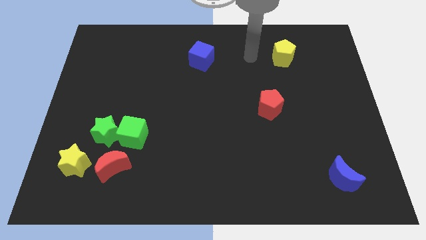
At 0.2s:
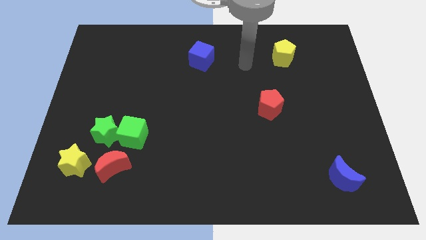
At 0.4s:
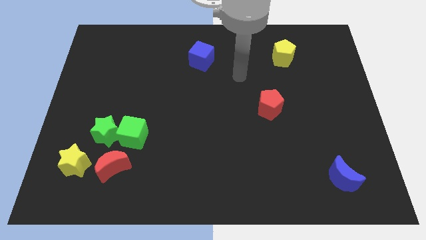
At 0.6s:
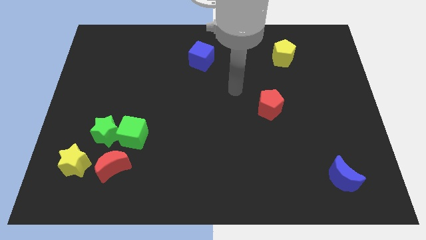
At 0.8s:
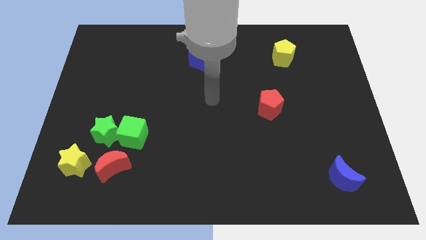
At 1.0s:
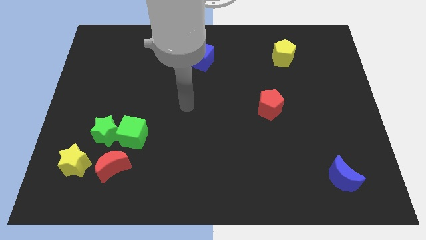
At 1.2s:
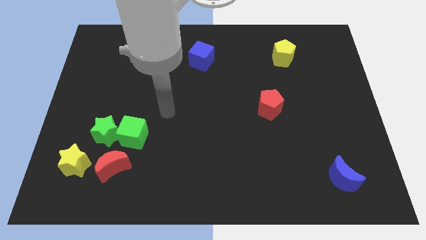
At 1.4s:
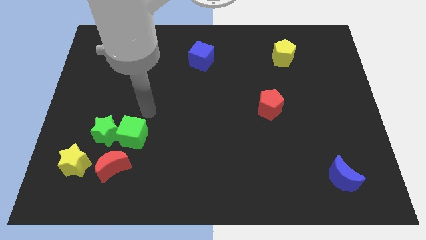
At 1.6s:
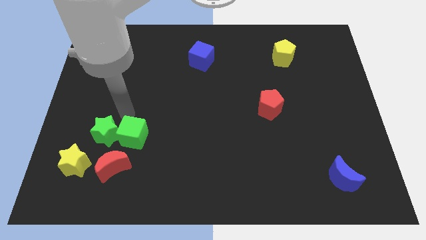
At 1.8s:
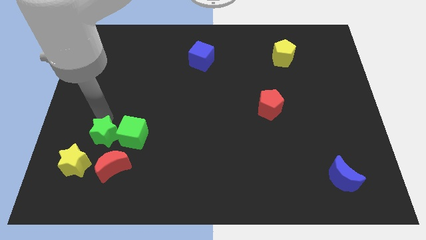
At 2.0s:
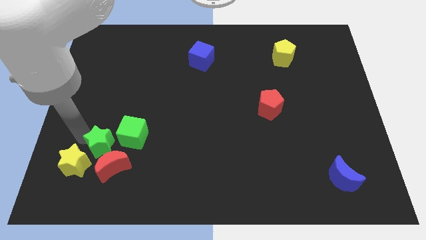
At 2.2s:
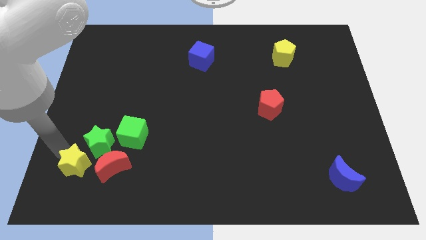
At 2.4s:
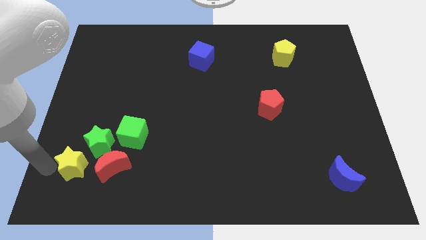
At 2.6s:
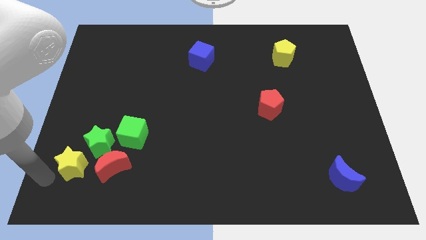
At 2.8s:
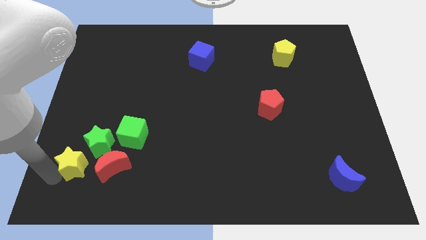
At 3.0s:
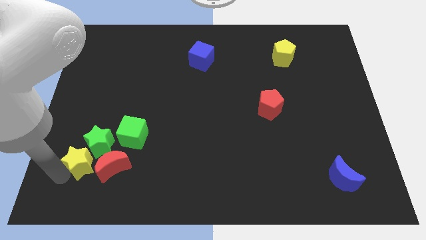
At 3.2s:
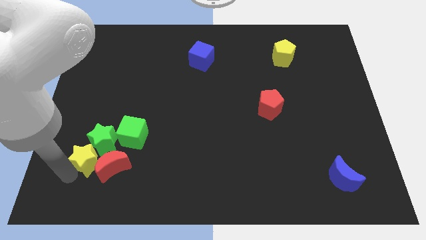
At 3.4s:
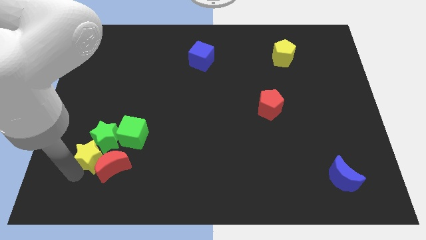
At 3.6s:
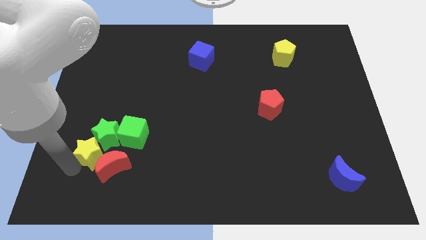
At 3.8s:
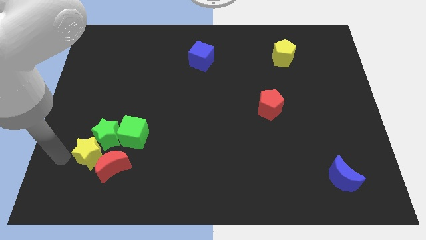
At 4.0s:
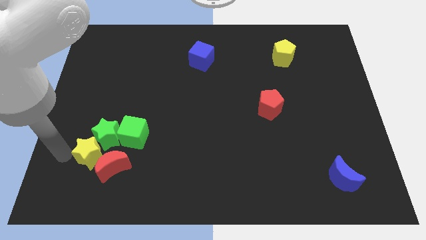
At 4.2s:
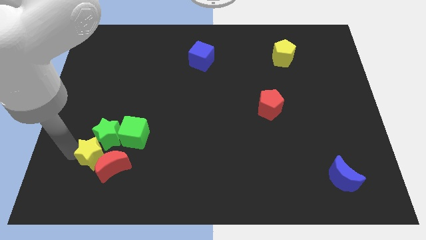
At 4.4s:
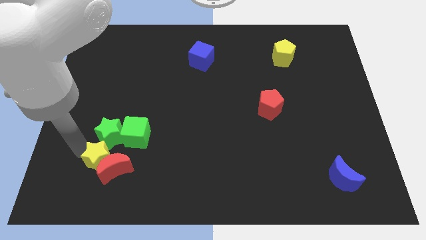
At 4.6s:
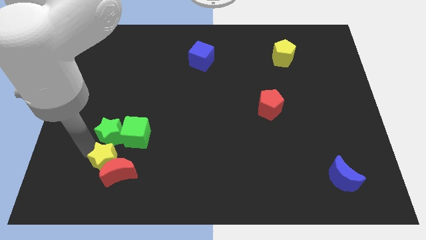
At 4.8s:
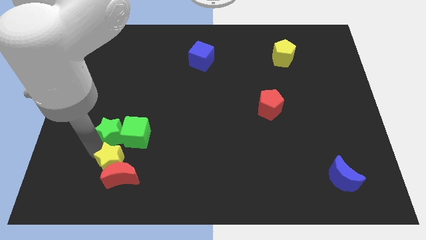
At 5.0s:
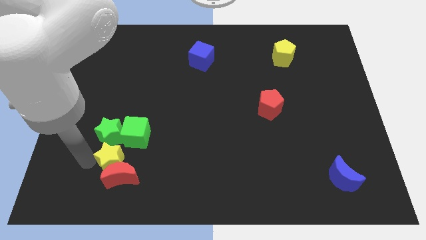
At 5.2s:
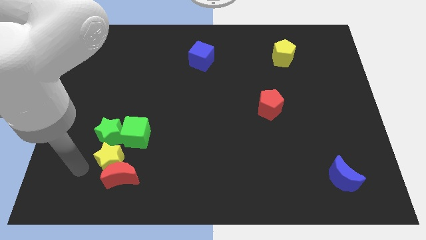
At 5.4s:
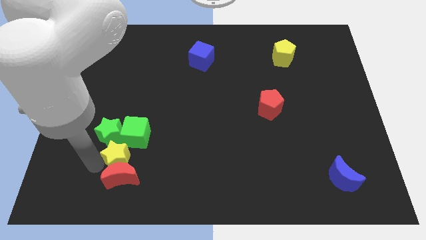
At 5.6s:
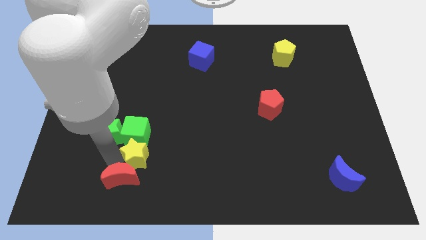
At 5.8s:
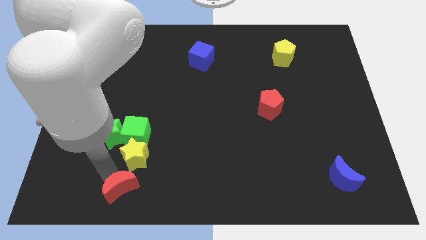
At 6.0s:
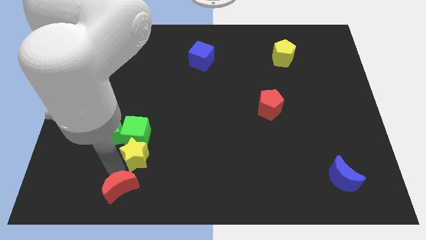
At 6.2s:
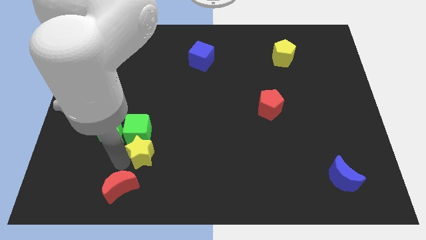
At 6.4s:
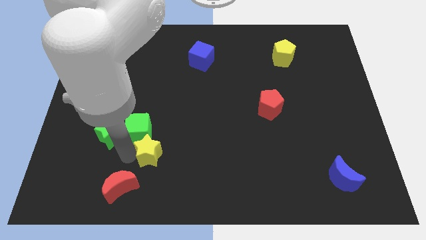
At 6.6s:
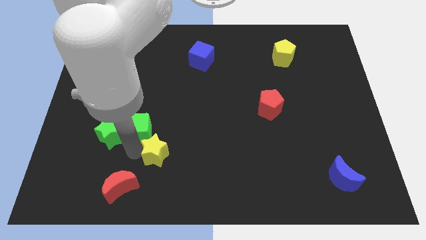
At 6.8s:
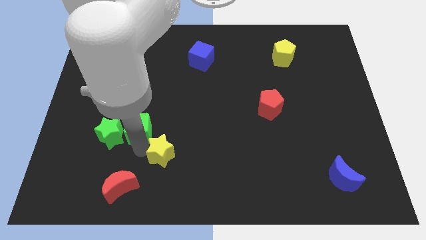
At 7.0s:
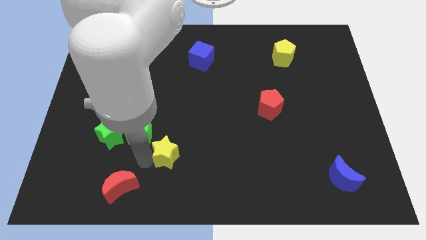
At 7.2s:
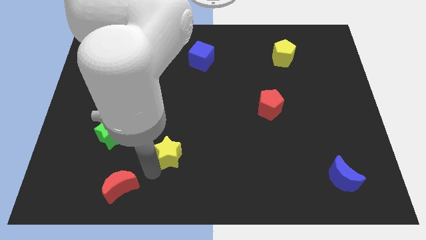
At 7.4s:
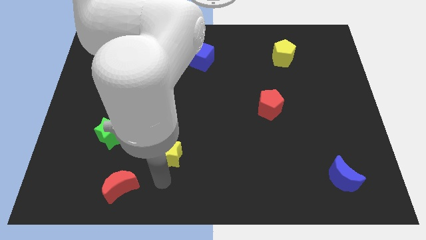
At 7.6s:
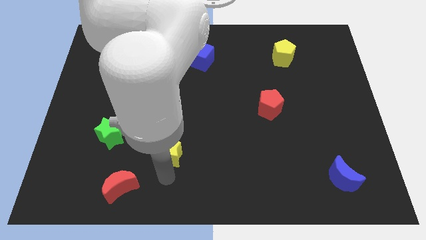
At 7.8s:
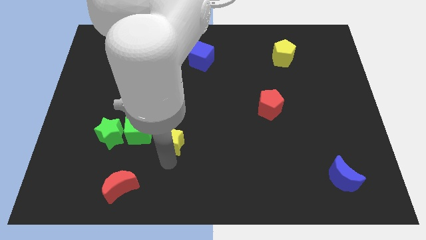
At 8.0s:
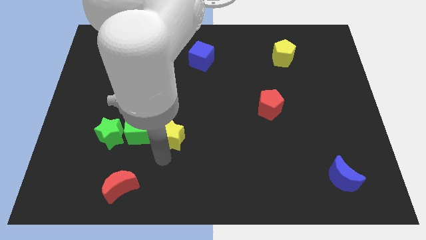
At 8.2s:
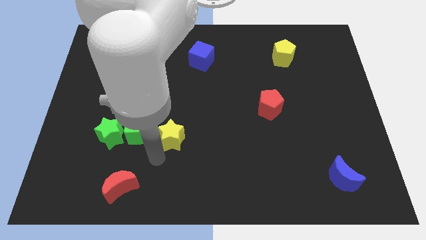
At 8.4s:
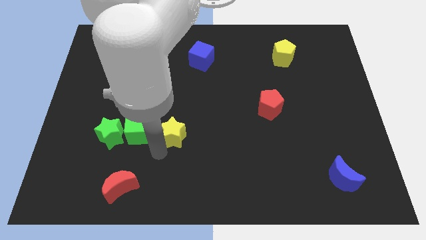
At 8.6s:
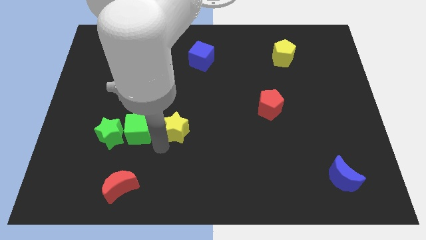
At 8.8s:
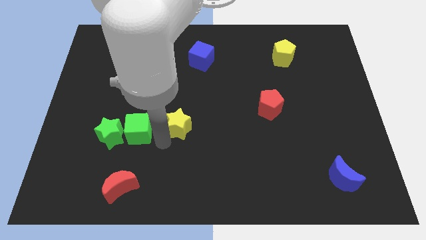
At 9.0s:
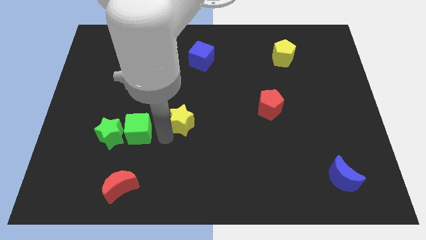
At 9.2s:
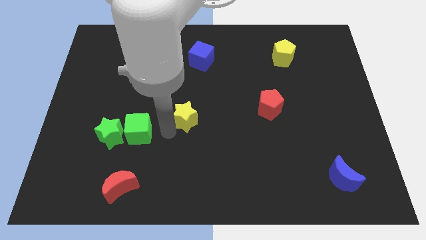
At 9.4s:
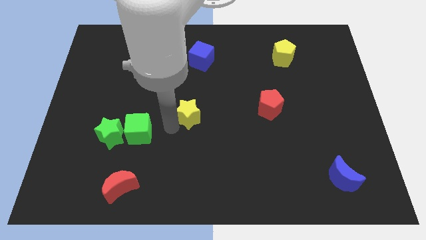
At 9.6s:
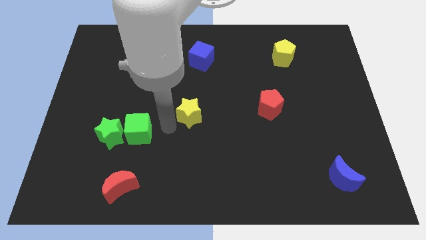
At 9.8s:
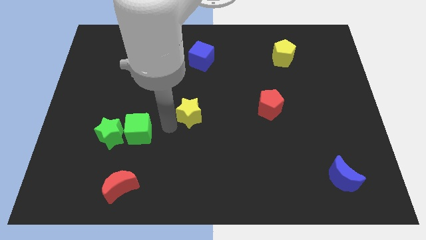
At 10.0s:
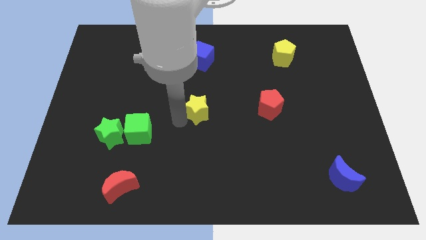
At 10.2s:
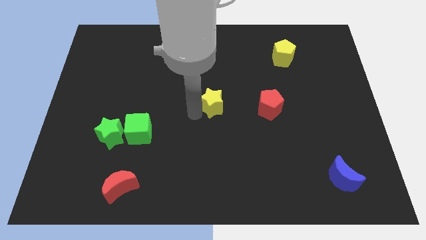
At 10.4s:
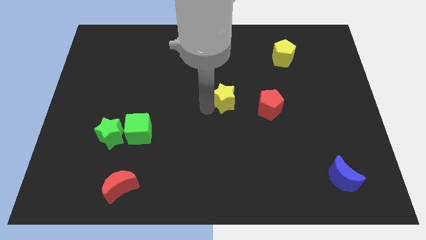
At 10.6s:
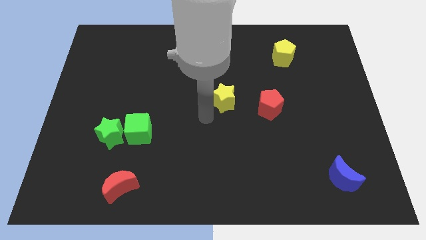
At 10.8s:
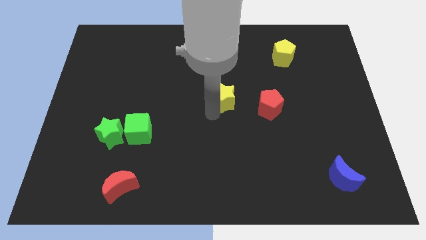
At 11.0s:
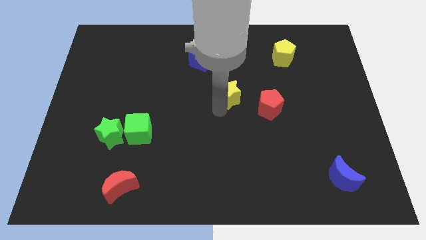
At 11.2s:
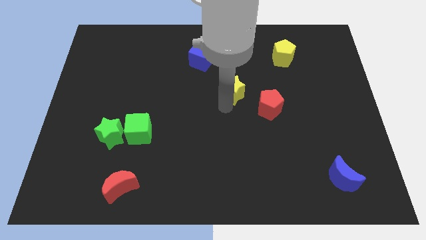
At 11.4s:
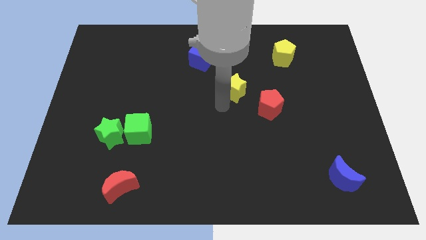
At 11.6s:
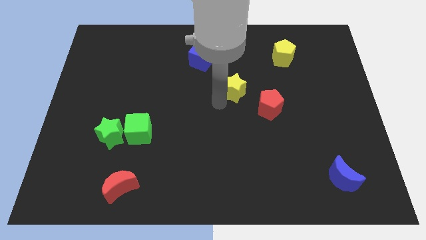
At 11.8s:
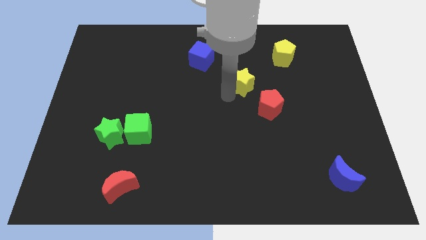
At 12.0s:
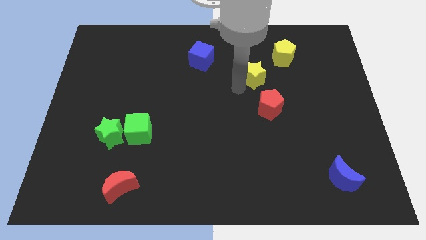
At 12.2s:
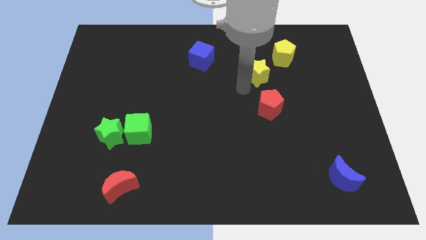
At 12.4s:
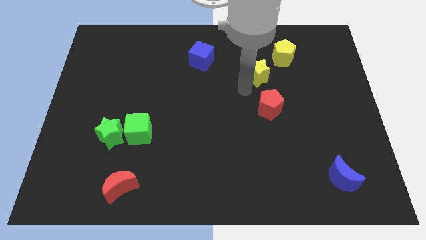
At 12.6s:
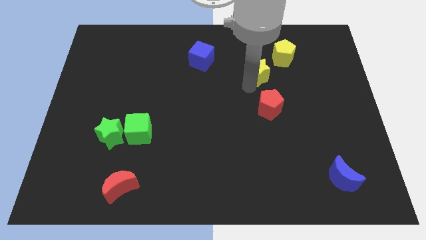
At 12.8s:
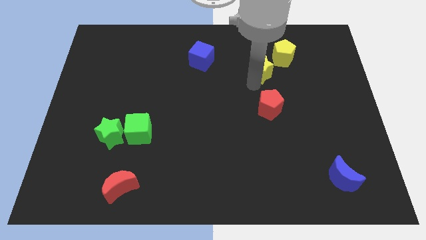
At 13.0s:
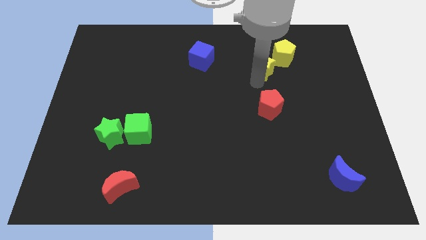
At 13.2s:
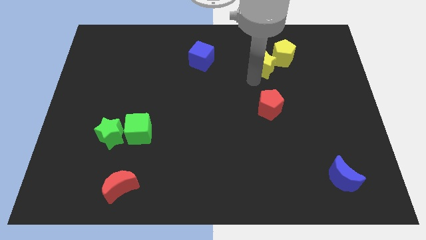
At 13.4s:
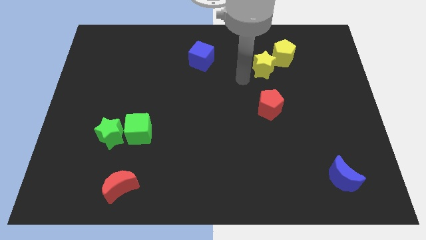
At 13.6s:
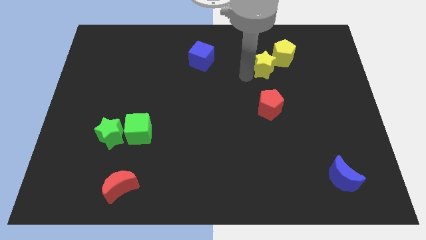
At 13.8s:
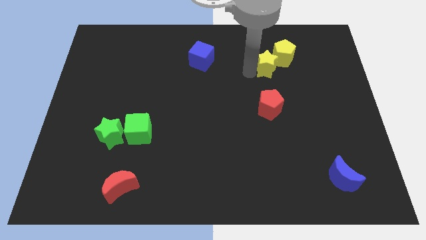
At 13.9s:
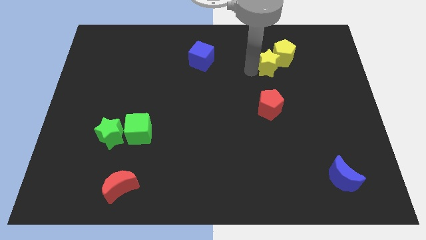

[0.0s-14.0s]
move the yellow star next to the yellow pentagon
